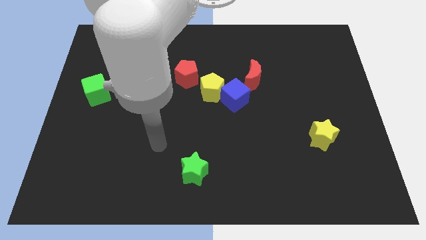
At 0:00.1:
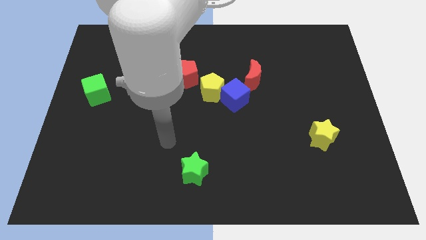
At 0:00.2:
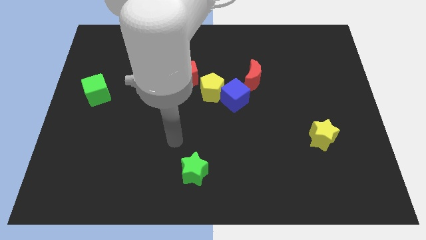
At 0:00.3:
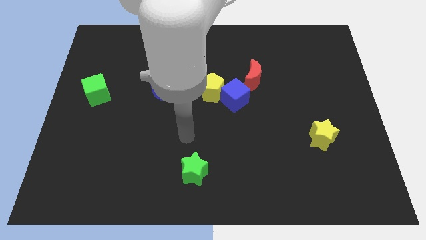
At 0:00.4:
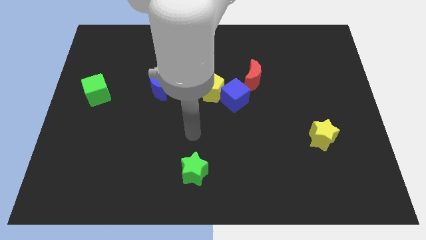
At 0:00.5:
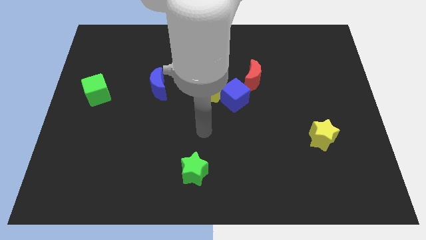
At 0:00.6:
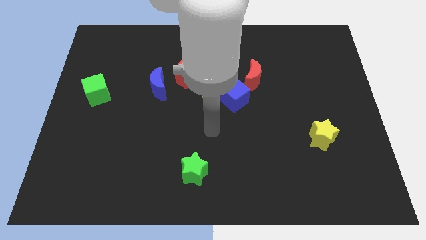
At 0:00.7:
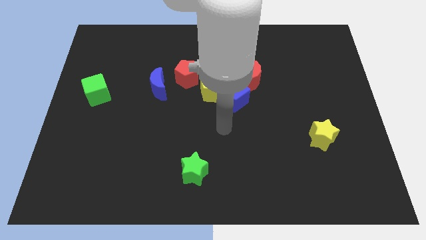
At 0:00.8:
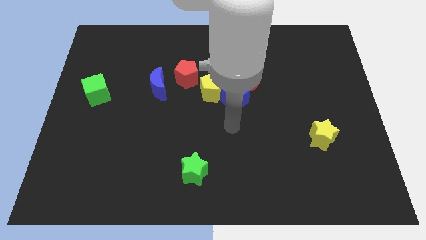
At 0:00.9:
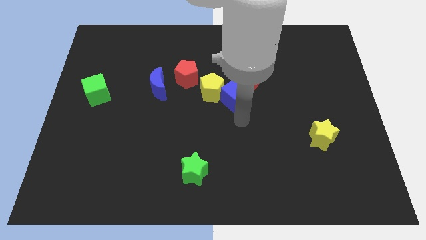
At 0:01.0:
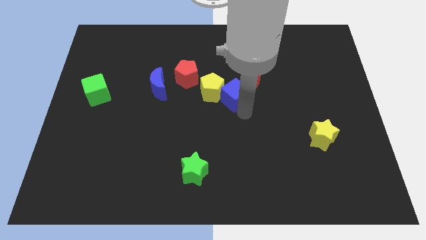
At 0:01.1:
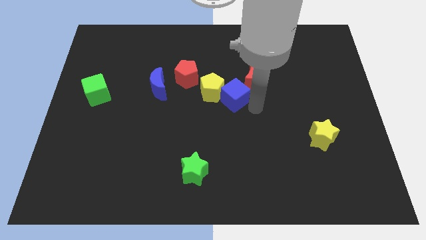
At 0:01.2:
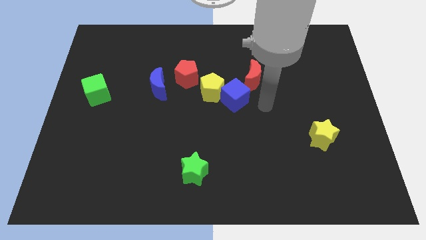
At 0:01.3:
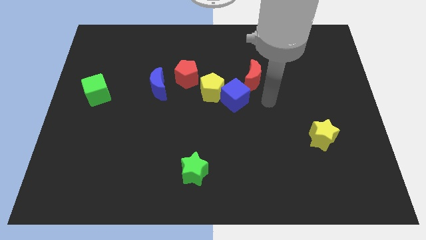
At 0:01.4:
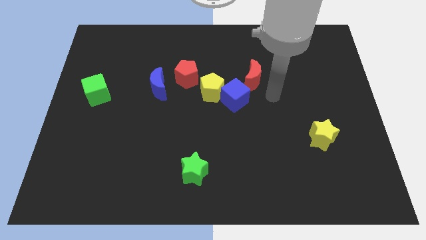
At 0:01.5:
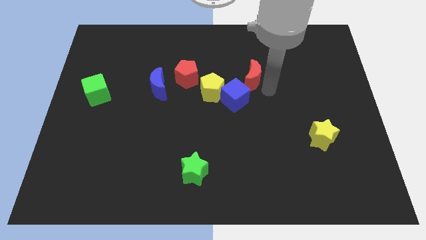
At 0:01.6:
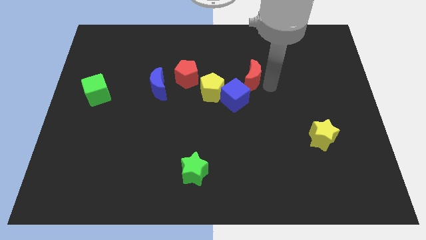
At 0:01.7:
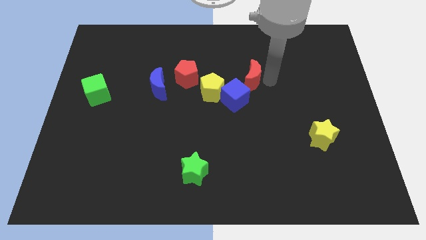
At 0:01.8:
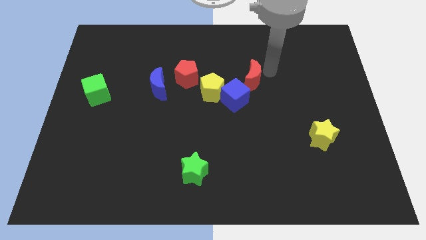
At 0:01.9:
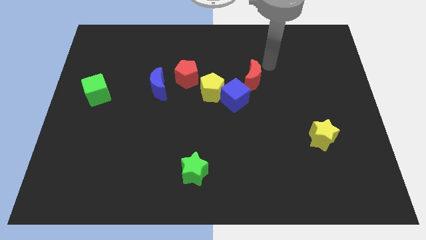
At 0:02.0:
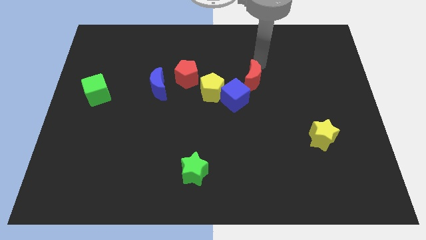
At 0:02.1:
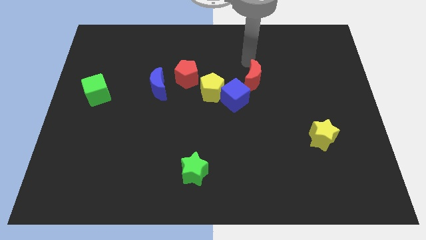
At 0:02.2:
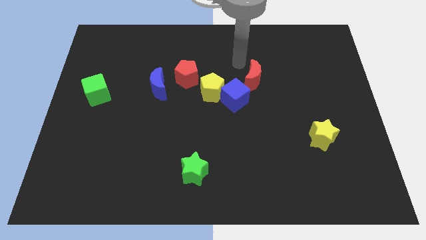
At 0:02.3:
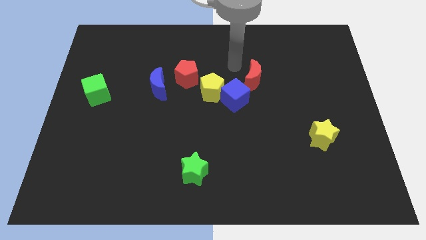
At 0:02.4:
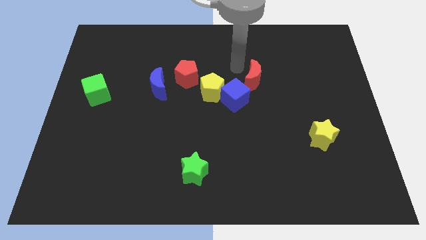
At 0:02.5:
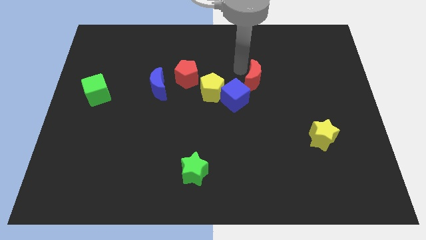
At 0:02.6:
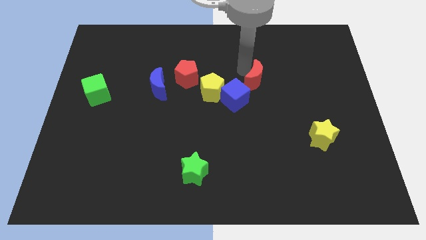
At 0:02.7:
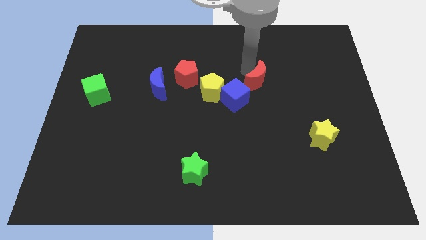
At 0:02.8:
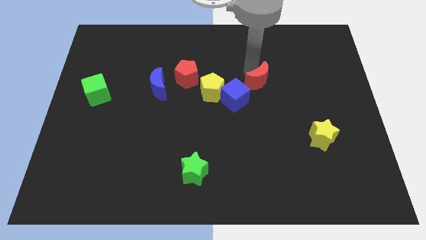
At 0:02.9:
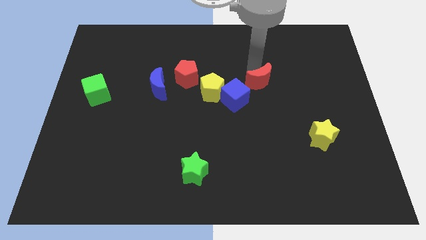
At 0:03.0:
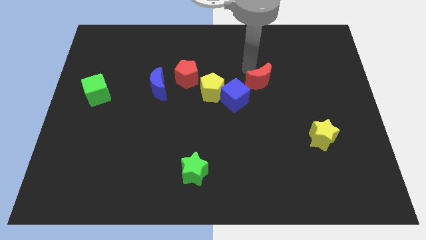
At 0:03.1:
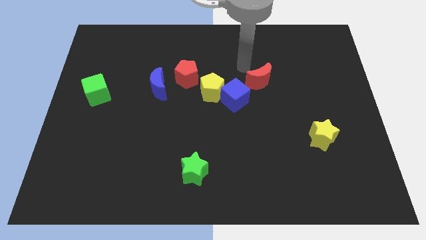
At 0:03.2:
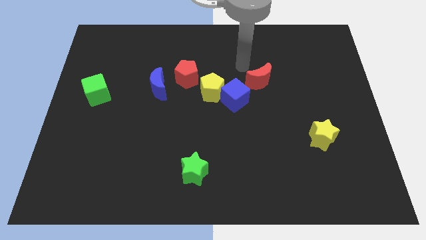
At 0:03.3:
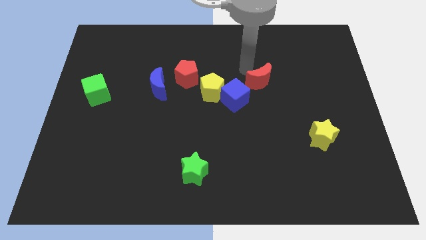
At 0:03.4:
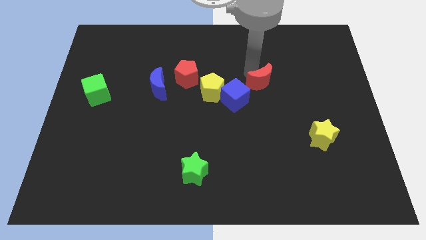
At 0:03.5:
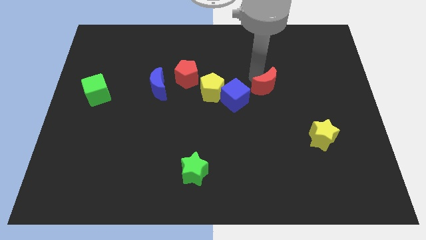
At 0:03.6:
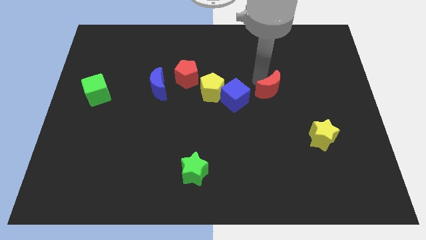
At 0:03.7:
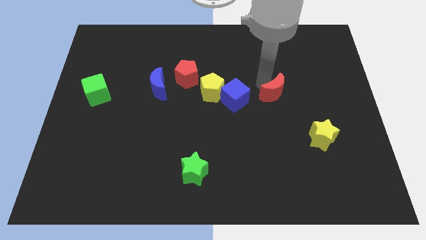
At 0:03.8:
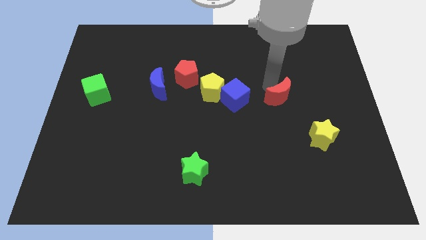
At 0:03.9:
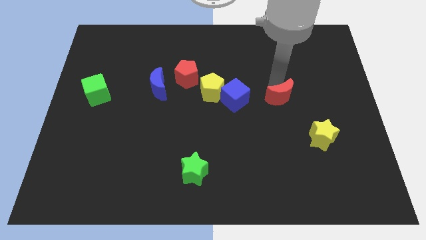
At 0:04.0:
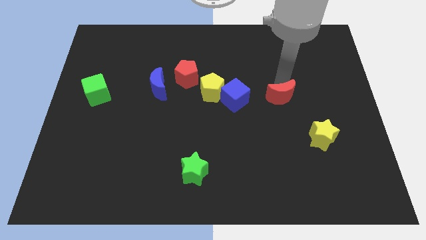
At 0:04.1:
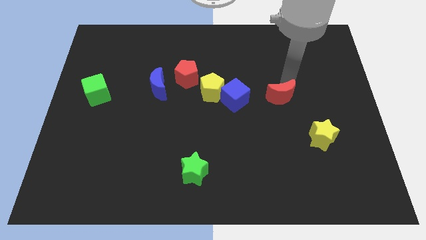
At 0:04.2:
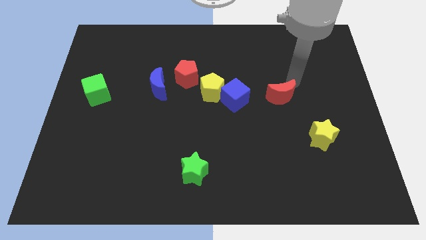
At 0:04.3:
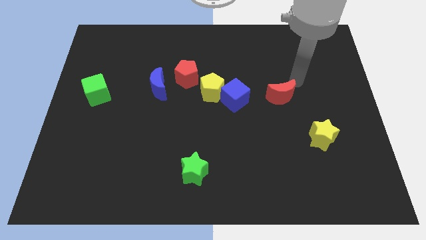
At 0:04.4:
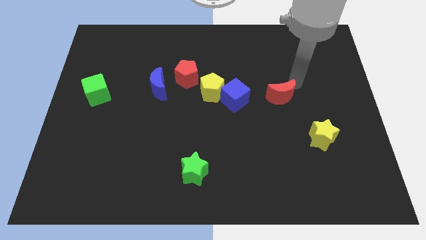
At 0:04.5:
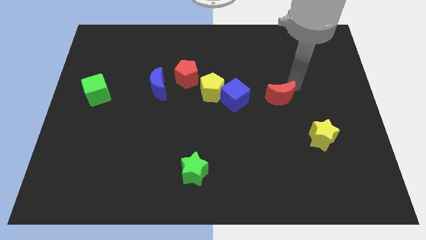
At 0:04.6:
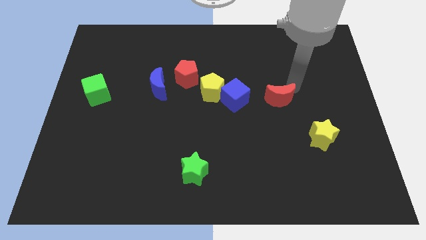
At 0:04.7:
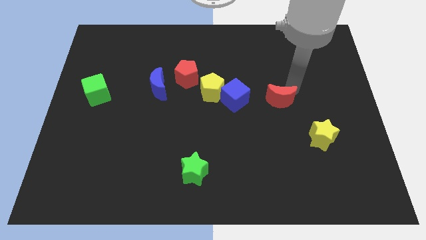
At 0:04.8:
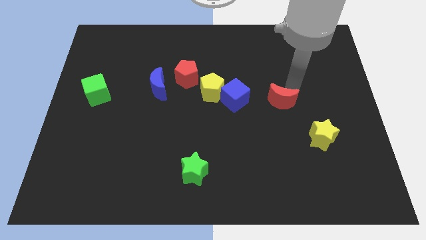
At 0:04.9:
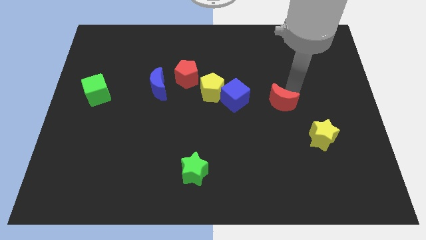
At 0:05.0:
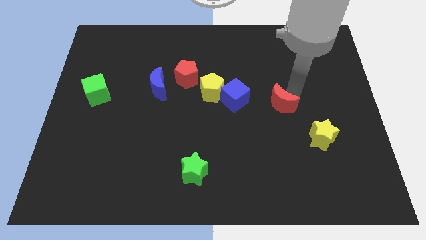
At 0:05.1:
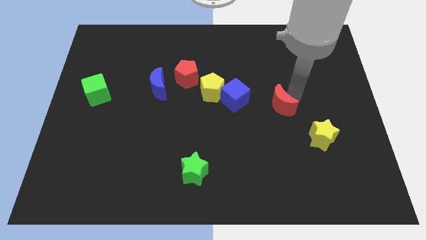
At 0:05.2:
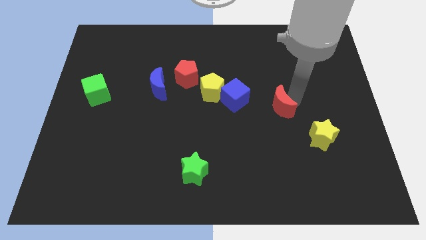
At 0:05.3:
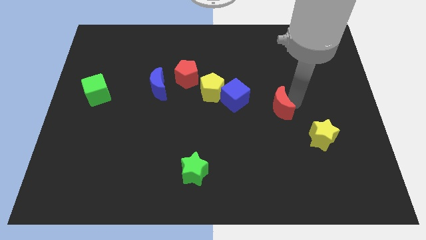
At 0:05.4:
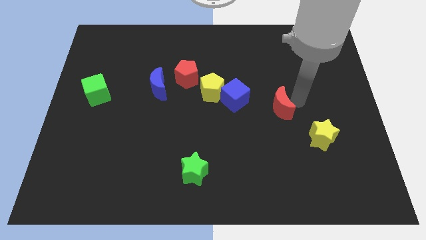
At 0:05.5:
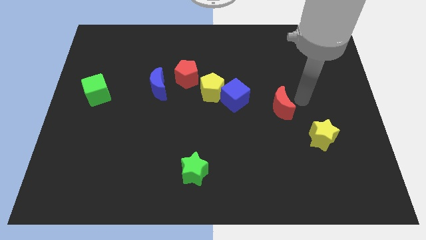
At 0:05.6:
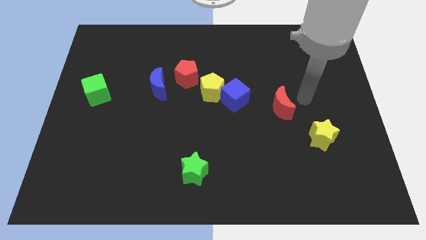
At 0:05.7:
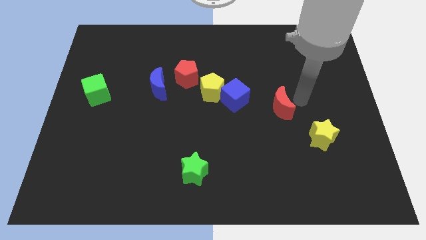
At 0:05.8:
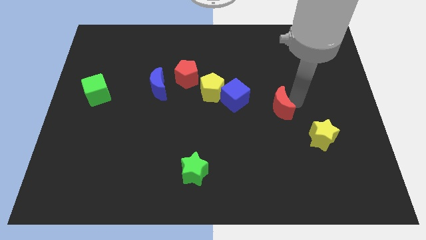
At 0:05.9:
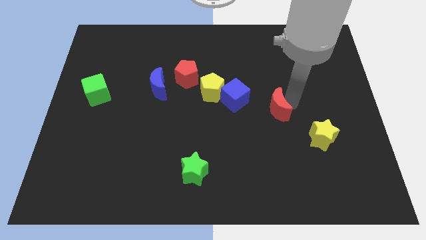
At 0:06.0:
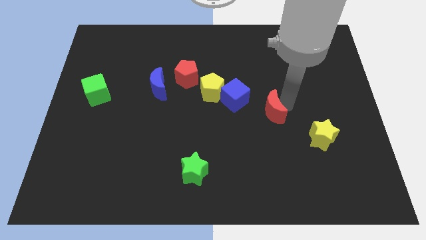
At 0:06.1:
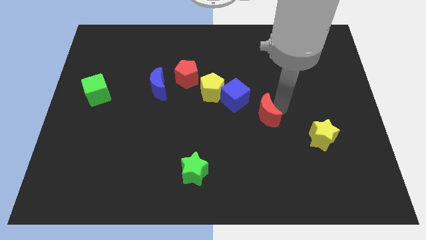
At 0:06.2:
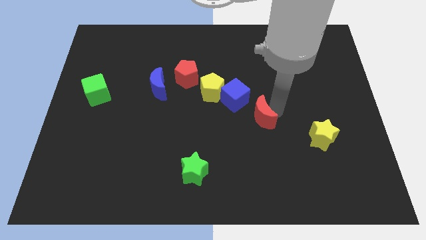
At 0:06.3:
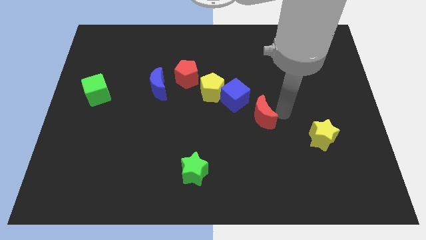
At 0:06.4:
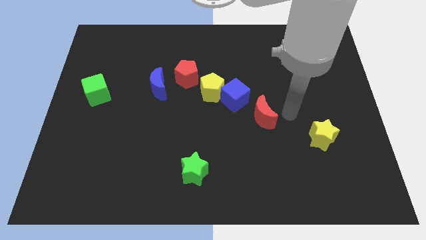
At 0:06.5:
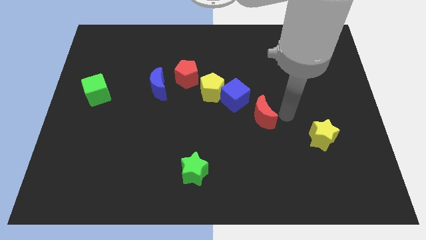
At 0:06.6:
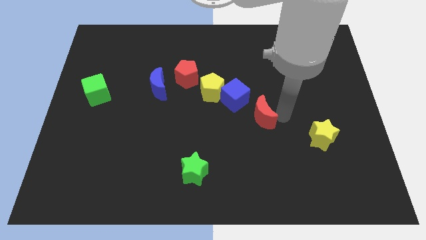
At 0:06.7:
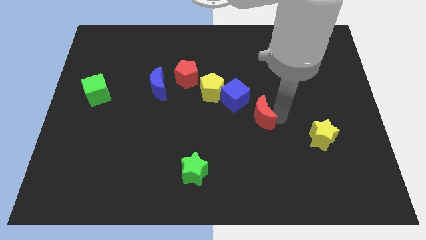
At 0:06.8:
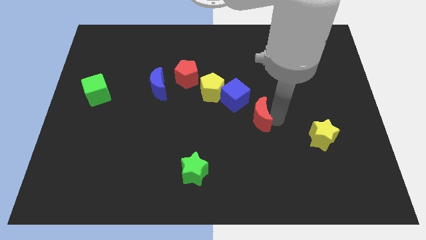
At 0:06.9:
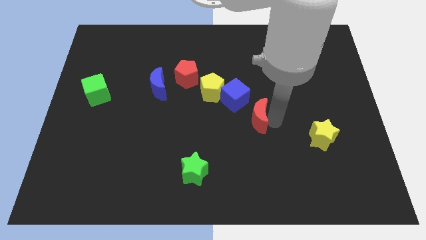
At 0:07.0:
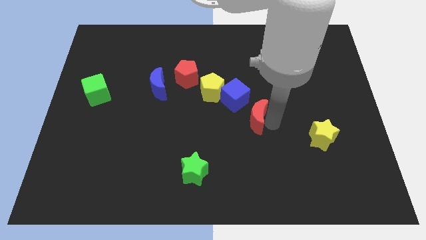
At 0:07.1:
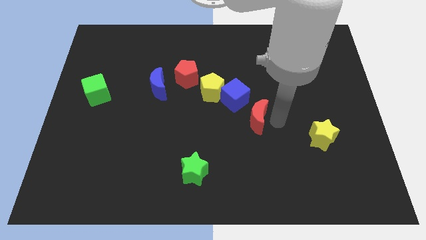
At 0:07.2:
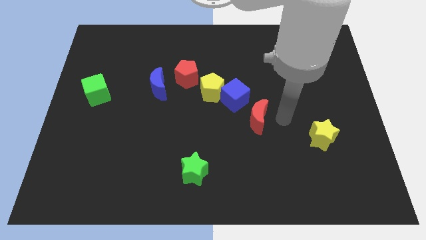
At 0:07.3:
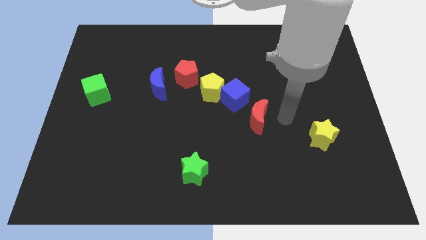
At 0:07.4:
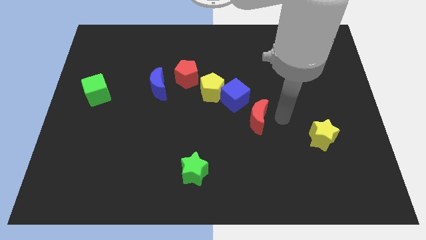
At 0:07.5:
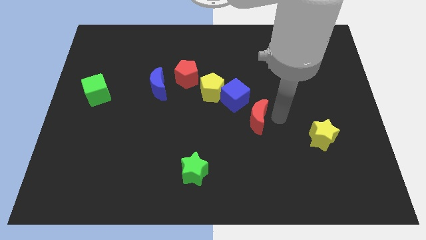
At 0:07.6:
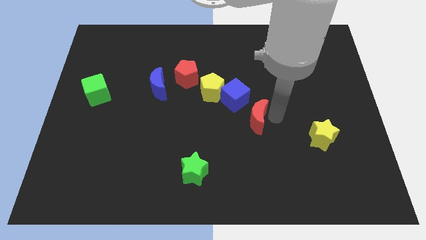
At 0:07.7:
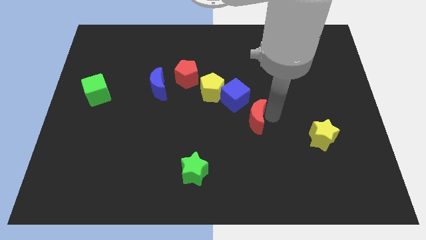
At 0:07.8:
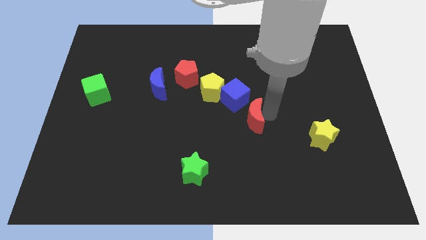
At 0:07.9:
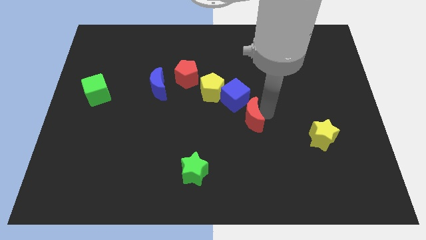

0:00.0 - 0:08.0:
slightly slide the red moon downwards and to the left

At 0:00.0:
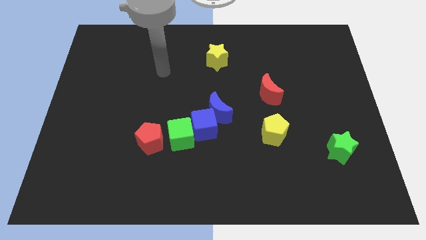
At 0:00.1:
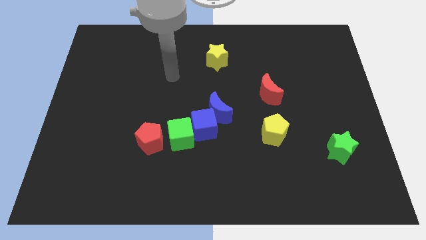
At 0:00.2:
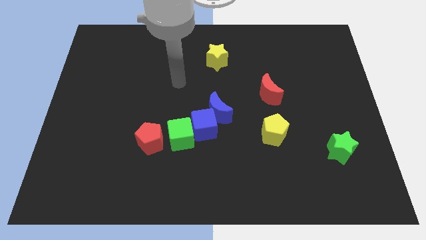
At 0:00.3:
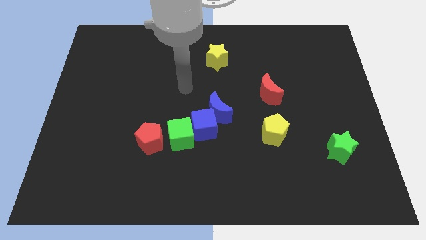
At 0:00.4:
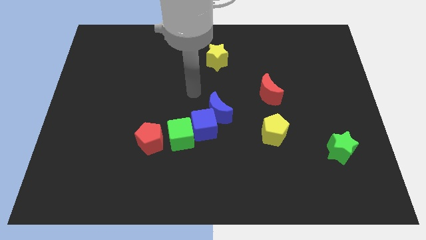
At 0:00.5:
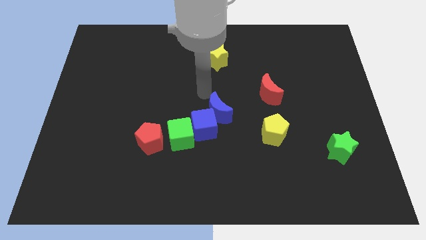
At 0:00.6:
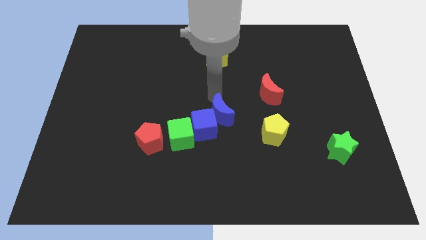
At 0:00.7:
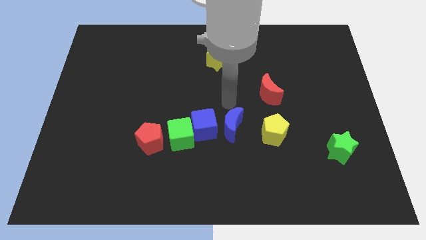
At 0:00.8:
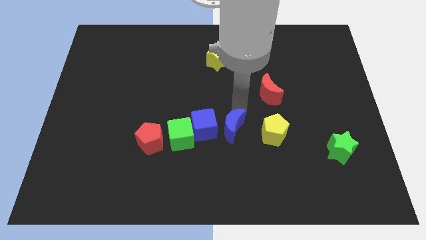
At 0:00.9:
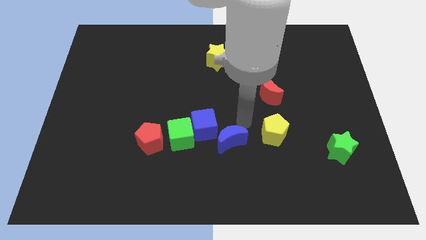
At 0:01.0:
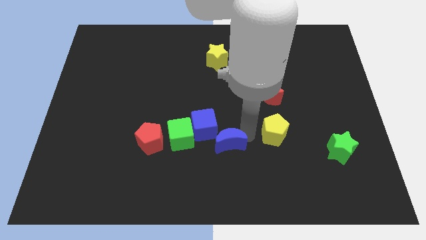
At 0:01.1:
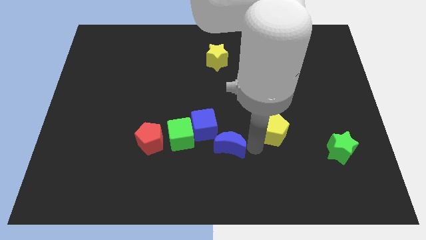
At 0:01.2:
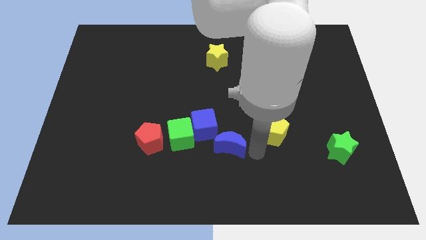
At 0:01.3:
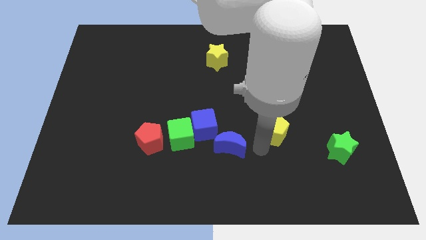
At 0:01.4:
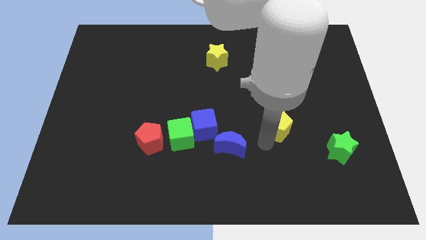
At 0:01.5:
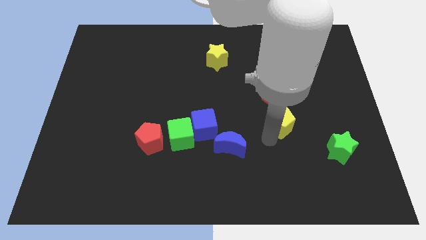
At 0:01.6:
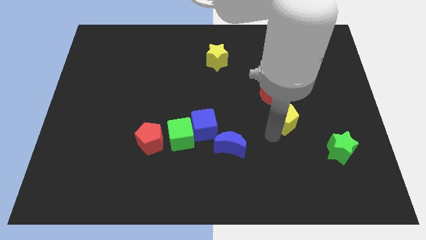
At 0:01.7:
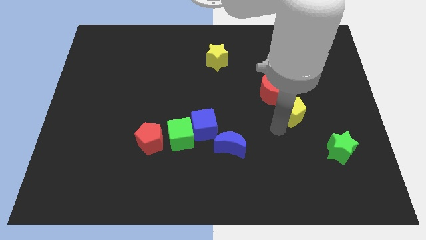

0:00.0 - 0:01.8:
slide the yellow pentagon upwards and right diagonally a little bit
